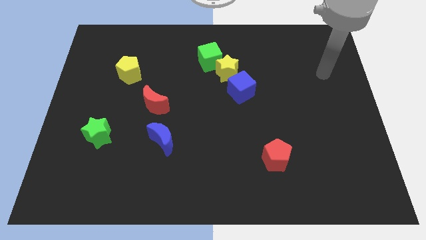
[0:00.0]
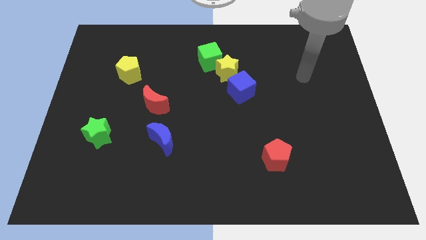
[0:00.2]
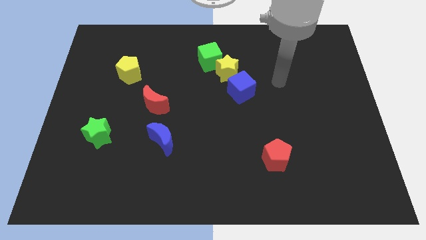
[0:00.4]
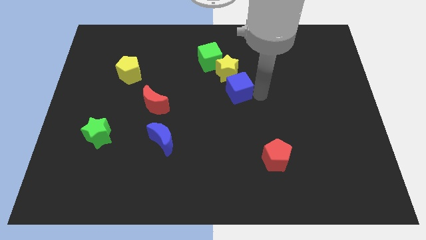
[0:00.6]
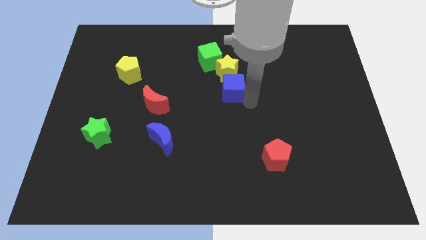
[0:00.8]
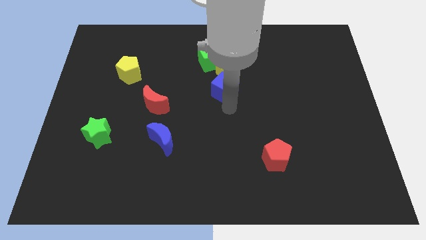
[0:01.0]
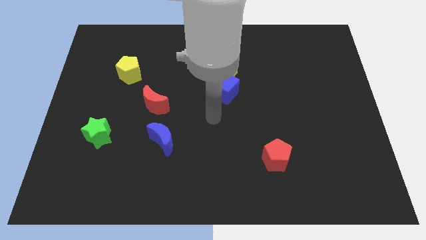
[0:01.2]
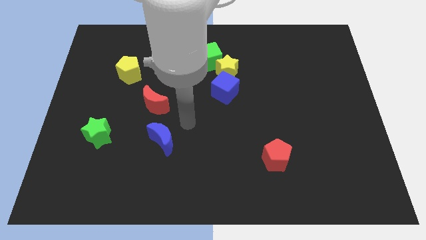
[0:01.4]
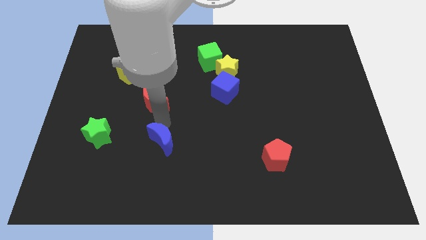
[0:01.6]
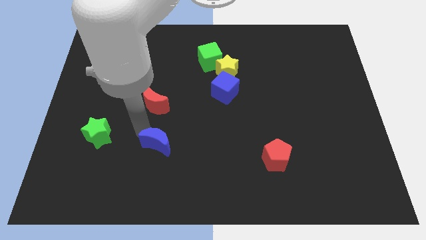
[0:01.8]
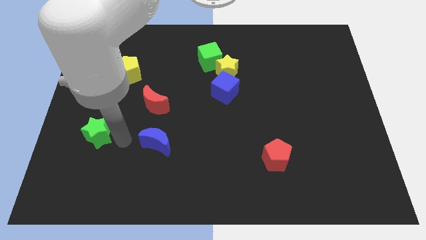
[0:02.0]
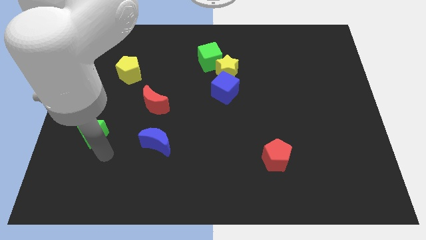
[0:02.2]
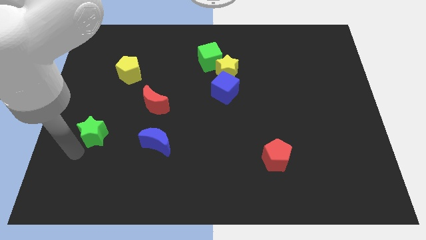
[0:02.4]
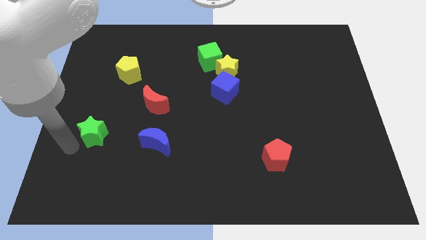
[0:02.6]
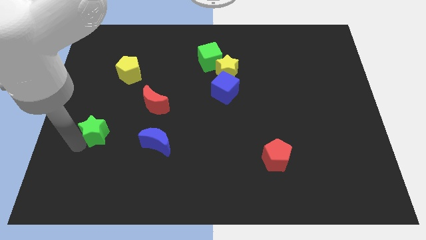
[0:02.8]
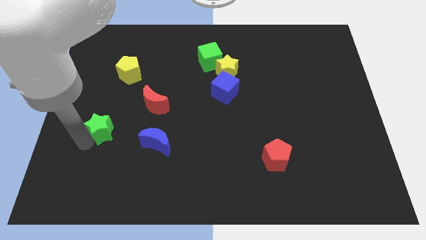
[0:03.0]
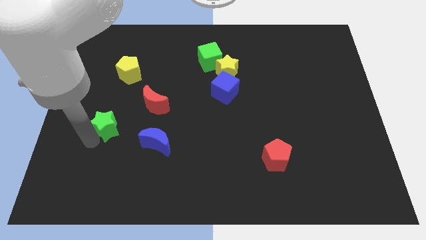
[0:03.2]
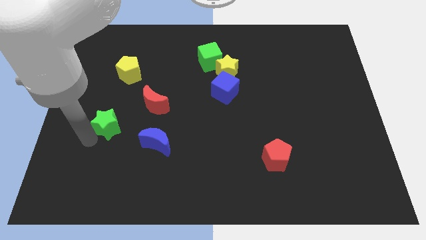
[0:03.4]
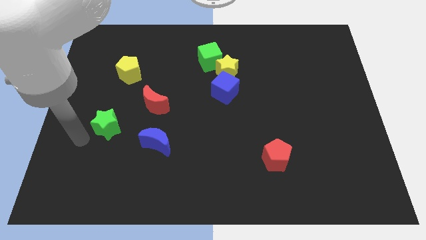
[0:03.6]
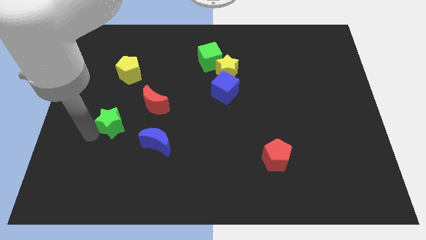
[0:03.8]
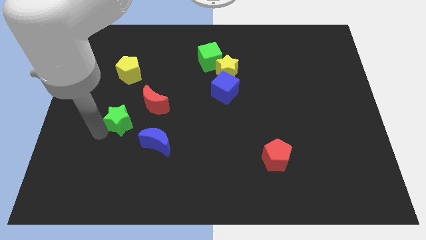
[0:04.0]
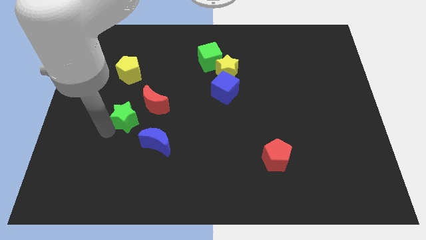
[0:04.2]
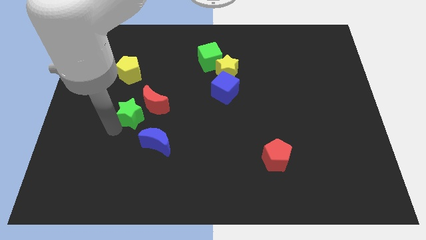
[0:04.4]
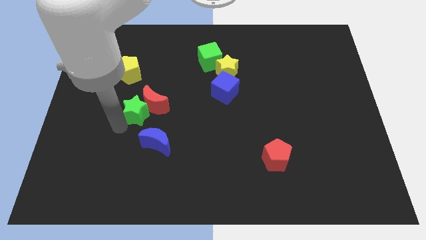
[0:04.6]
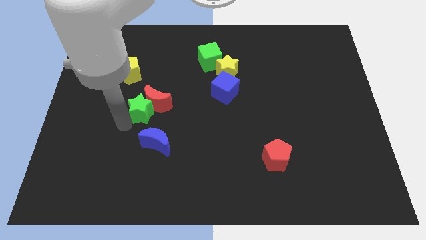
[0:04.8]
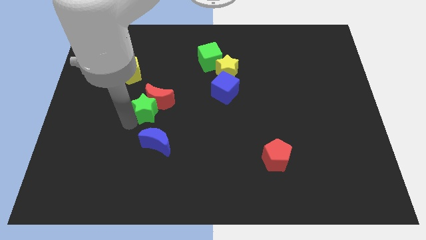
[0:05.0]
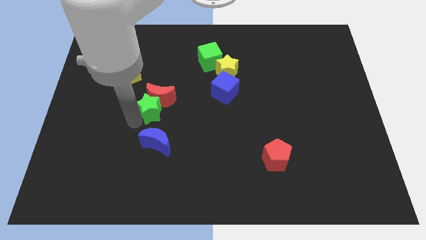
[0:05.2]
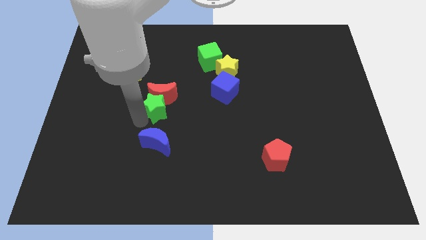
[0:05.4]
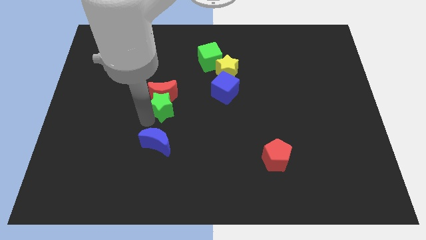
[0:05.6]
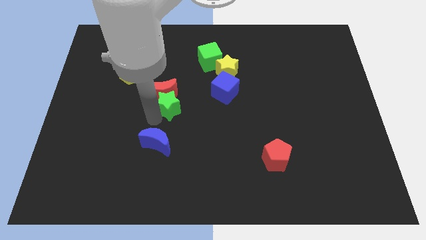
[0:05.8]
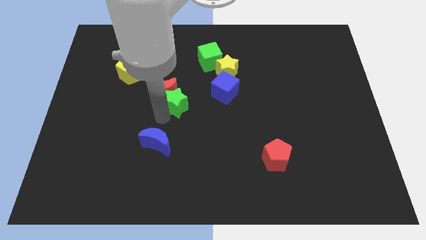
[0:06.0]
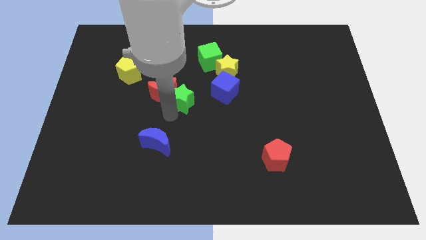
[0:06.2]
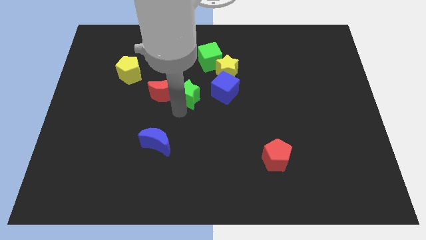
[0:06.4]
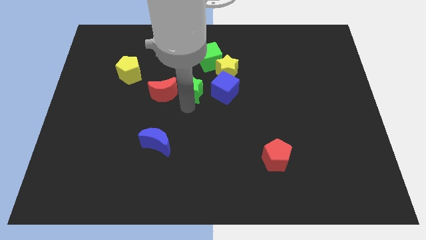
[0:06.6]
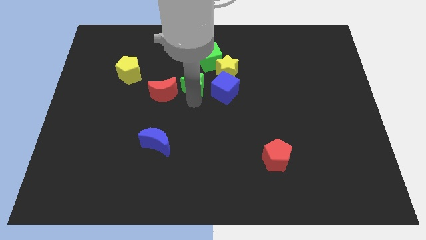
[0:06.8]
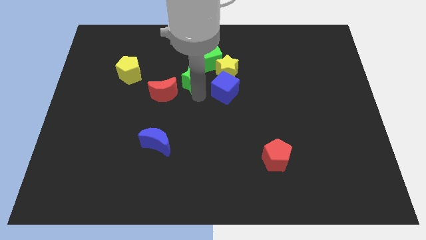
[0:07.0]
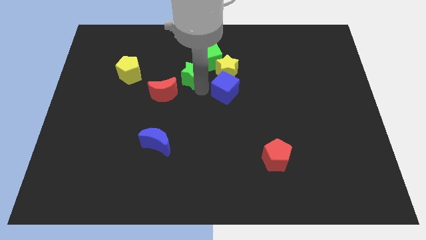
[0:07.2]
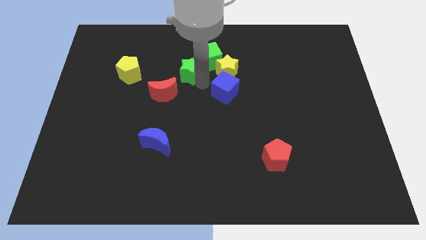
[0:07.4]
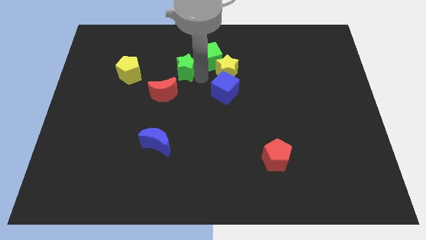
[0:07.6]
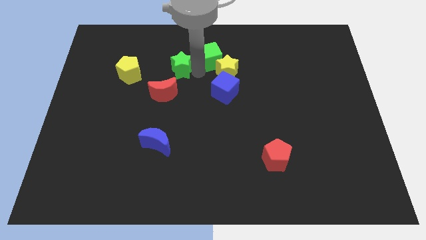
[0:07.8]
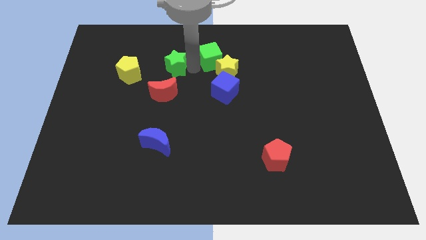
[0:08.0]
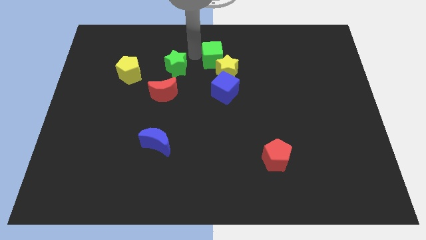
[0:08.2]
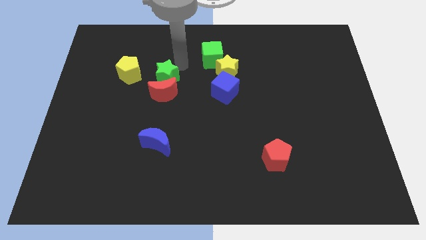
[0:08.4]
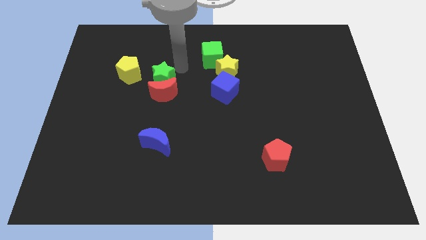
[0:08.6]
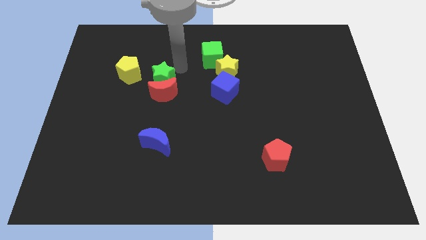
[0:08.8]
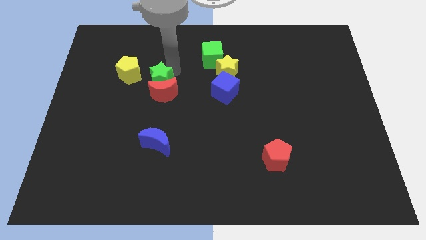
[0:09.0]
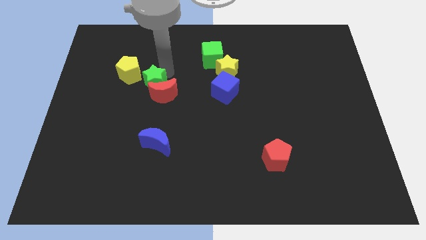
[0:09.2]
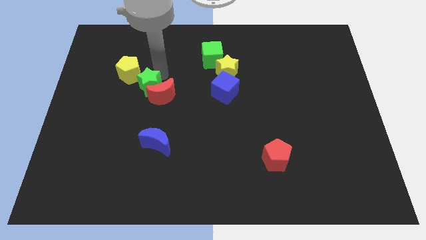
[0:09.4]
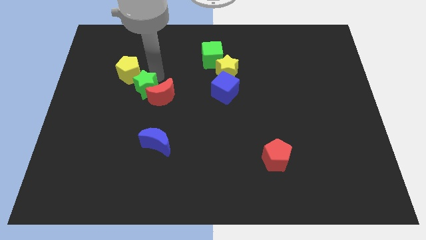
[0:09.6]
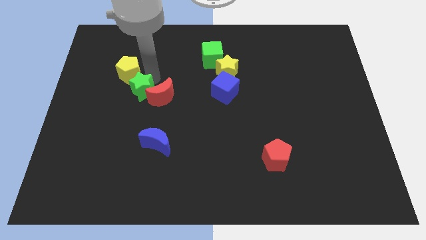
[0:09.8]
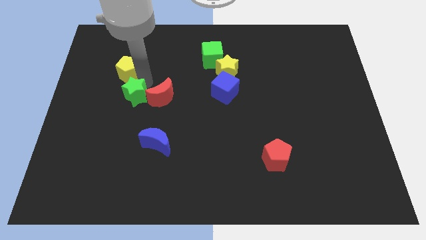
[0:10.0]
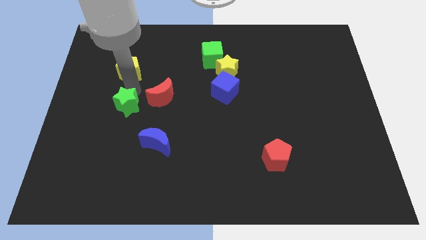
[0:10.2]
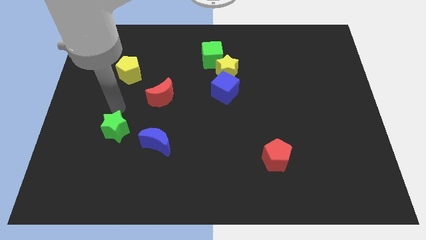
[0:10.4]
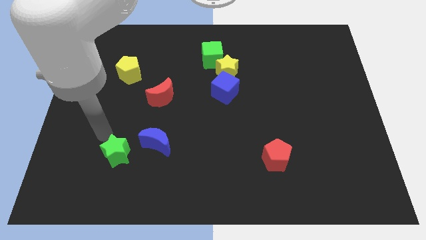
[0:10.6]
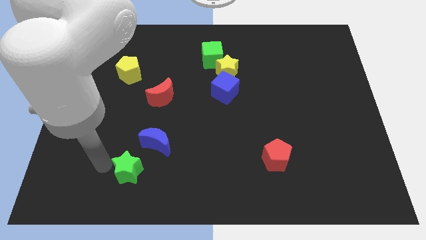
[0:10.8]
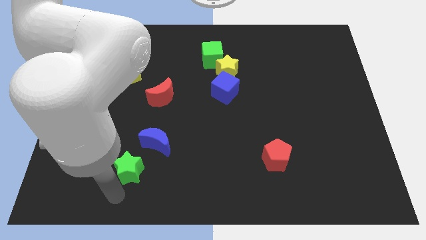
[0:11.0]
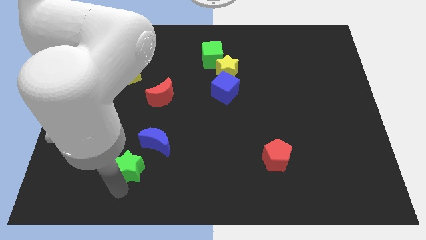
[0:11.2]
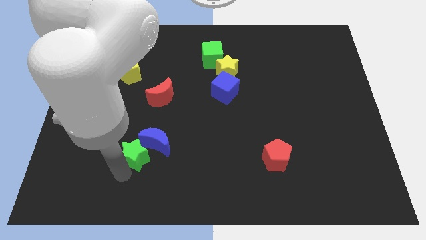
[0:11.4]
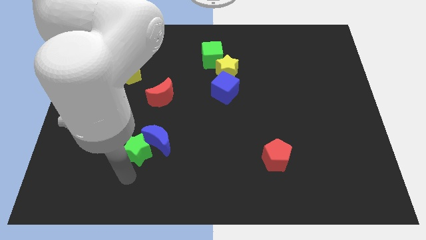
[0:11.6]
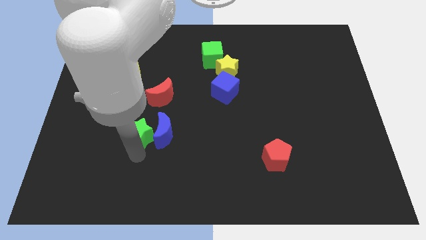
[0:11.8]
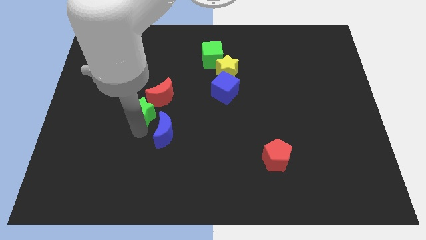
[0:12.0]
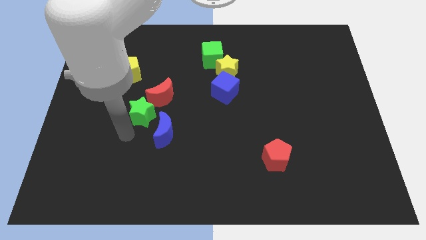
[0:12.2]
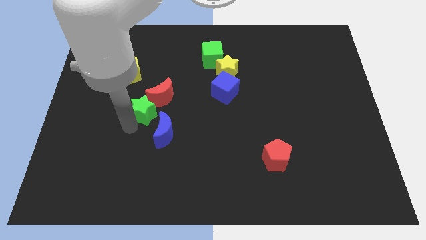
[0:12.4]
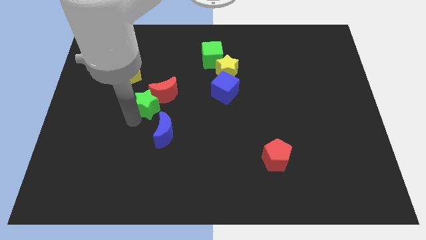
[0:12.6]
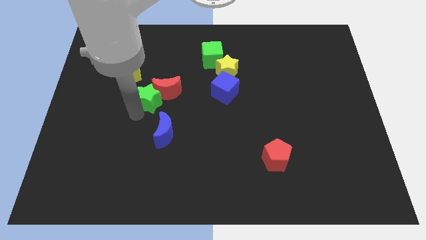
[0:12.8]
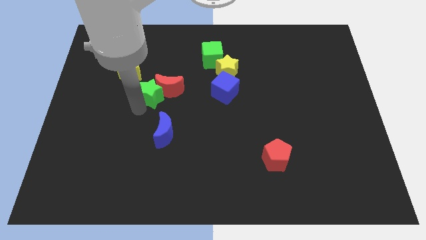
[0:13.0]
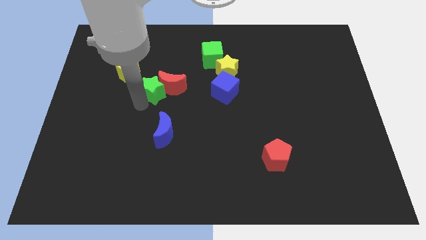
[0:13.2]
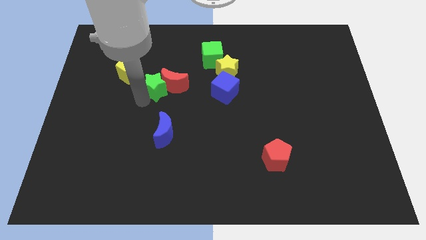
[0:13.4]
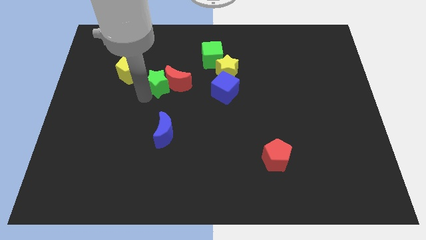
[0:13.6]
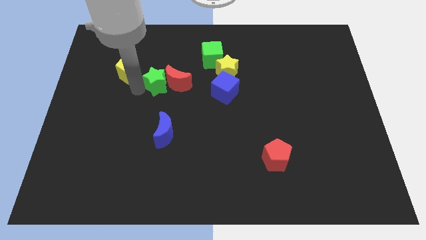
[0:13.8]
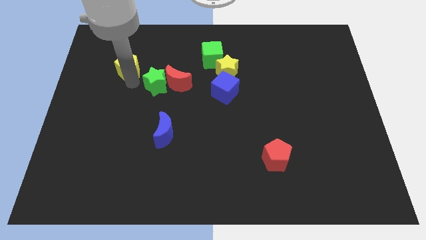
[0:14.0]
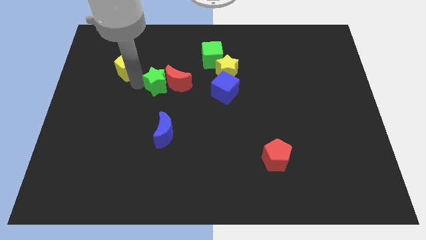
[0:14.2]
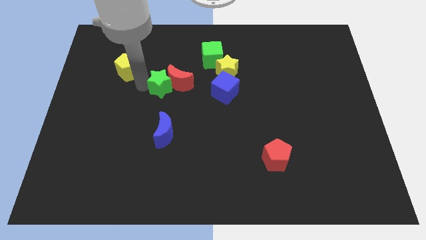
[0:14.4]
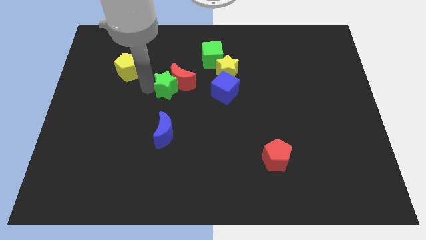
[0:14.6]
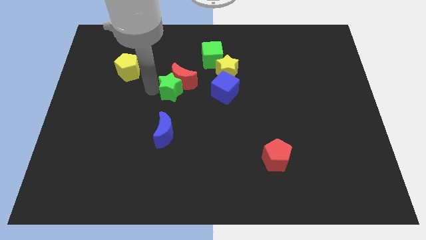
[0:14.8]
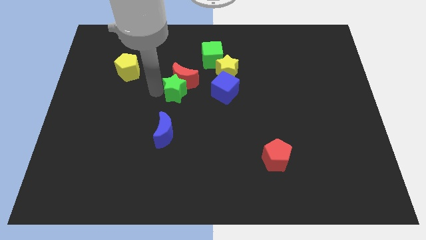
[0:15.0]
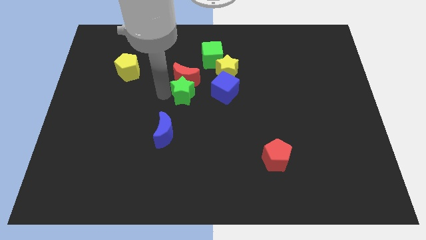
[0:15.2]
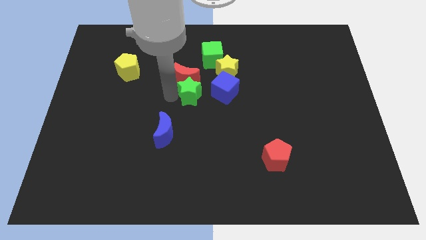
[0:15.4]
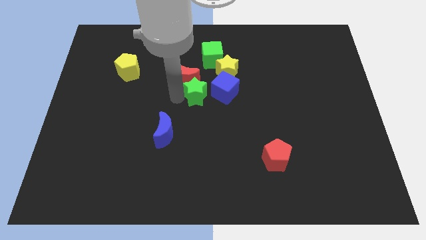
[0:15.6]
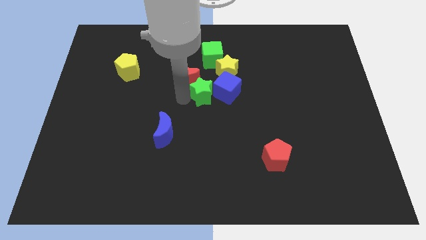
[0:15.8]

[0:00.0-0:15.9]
slide the green star towards the blue cube
